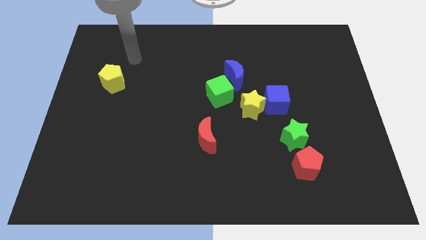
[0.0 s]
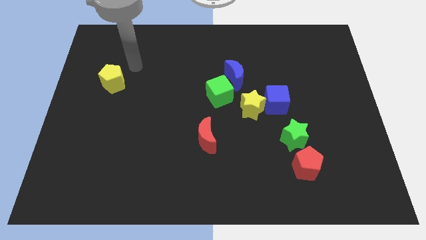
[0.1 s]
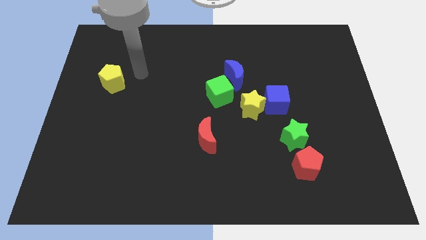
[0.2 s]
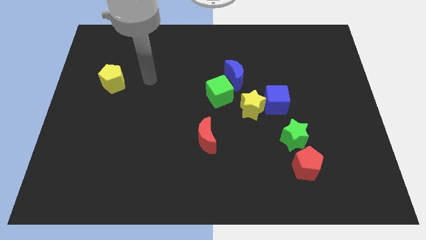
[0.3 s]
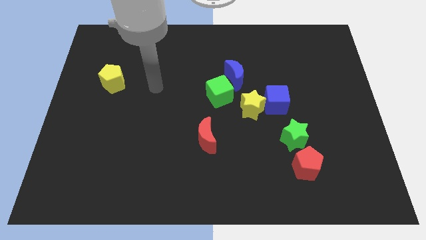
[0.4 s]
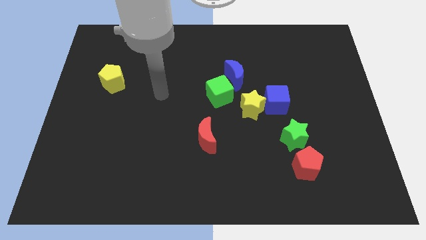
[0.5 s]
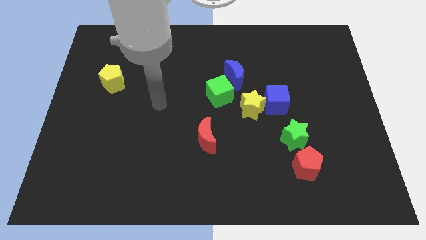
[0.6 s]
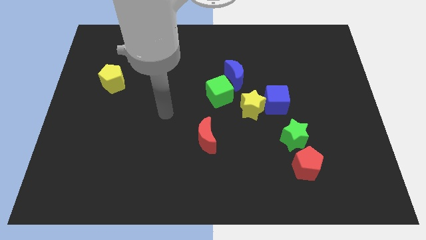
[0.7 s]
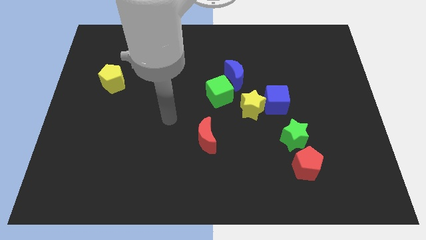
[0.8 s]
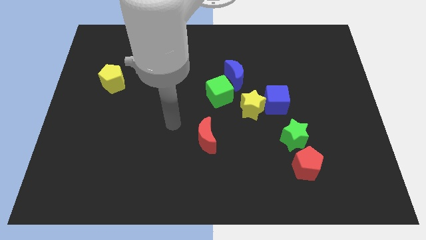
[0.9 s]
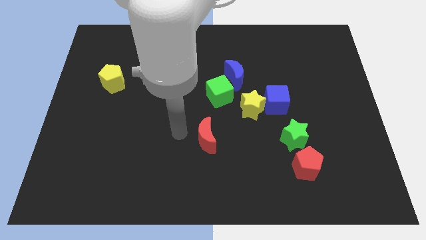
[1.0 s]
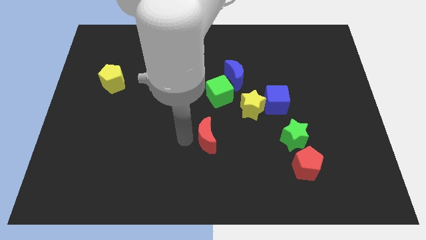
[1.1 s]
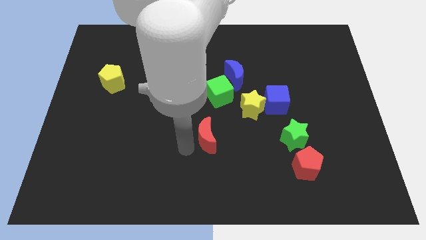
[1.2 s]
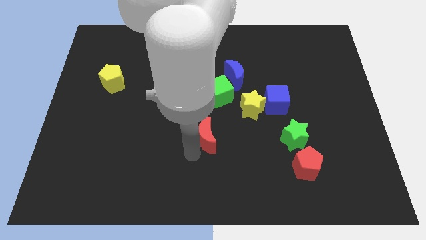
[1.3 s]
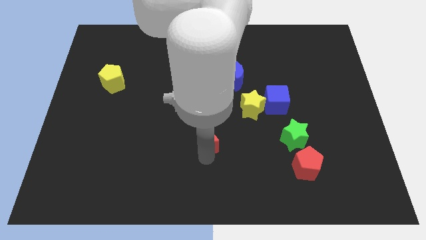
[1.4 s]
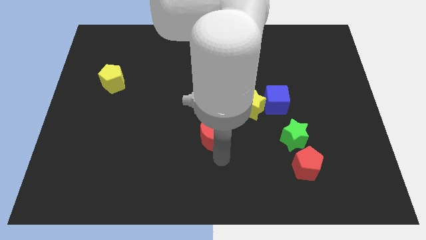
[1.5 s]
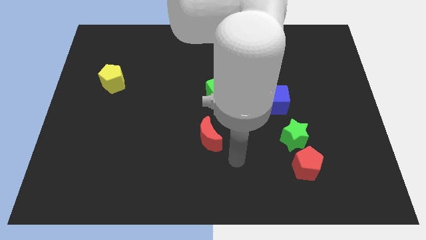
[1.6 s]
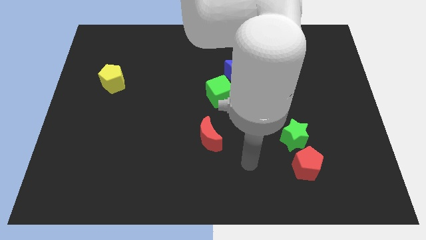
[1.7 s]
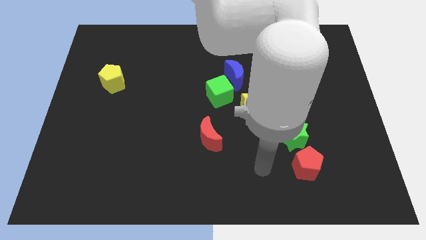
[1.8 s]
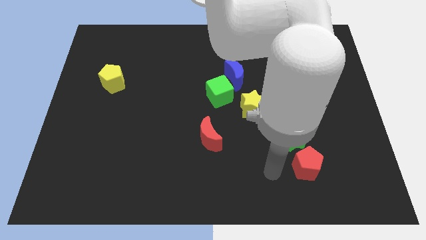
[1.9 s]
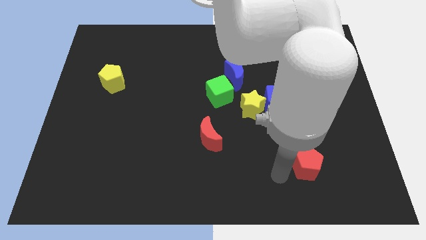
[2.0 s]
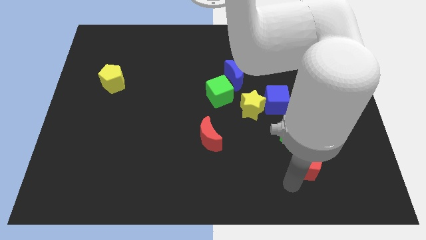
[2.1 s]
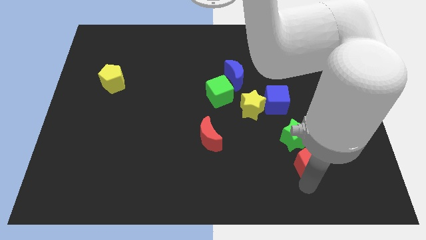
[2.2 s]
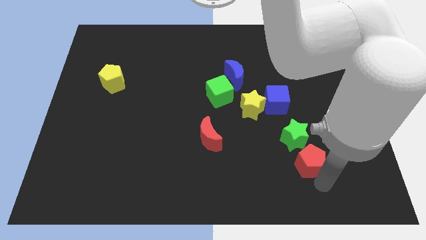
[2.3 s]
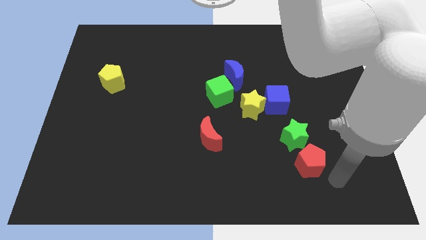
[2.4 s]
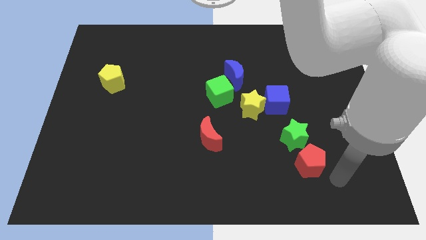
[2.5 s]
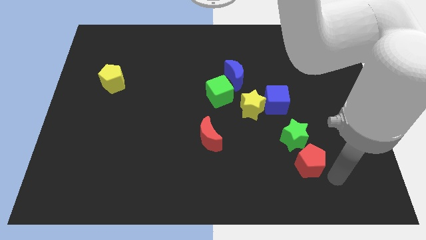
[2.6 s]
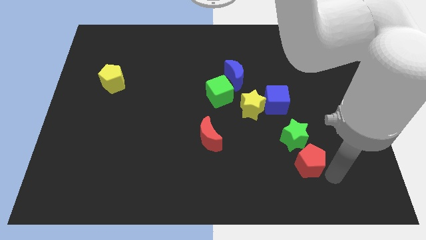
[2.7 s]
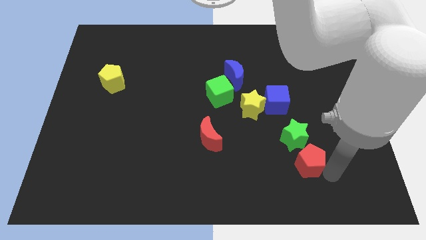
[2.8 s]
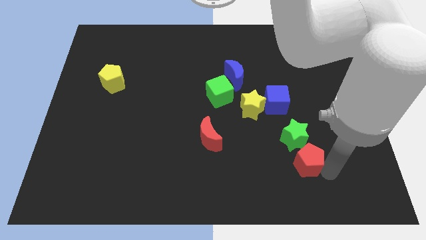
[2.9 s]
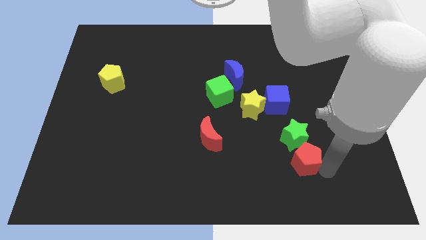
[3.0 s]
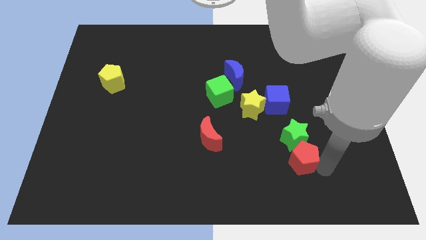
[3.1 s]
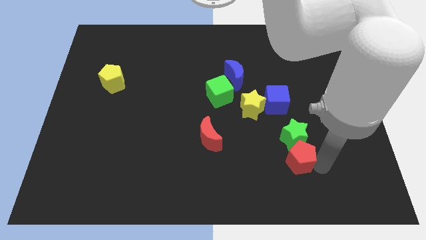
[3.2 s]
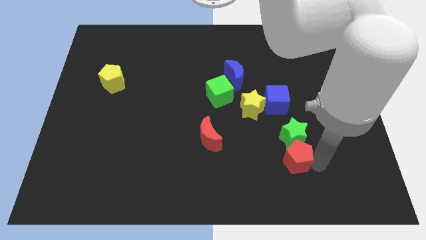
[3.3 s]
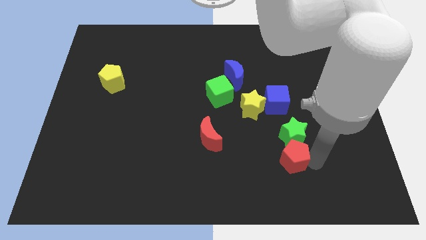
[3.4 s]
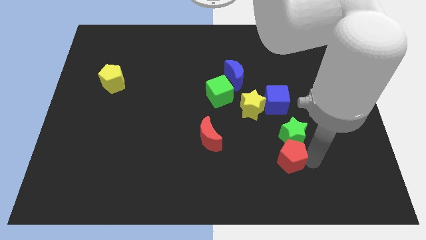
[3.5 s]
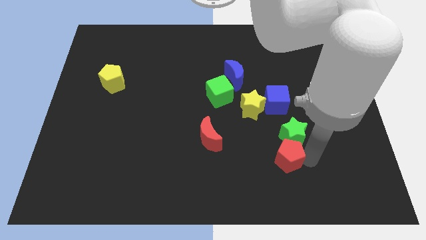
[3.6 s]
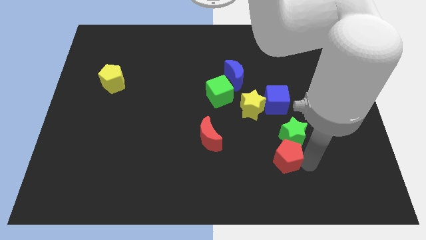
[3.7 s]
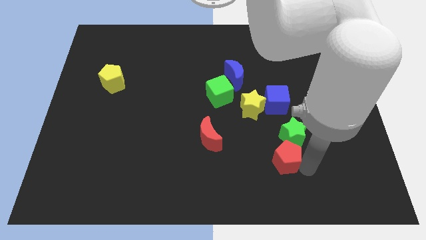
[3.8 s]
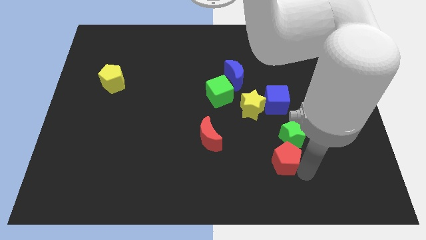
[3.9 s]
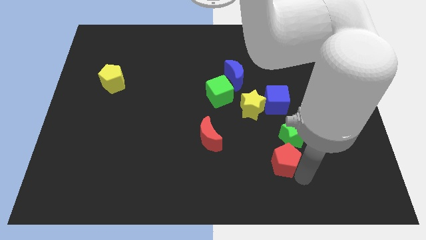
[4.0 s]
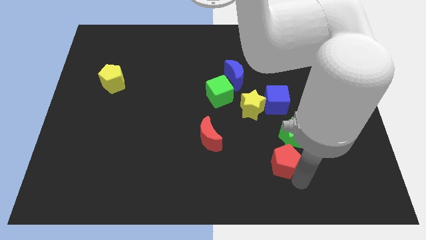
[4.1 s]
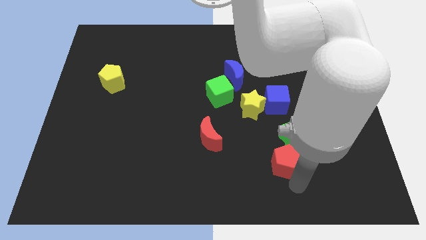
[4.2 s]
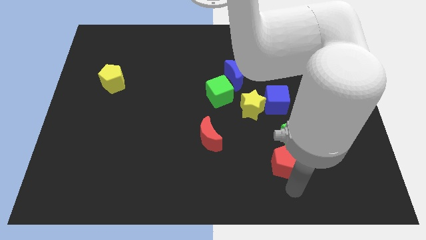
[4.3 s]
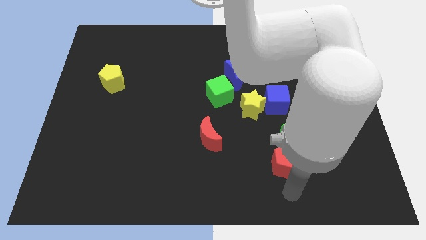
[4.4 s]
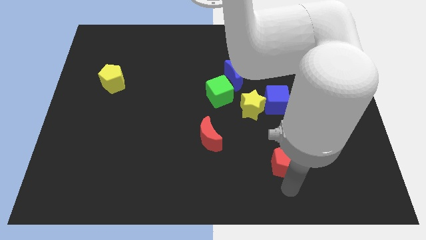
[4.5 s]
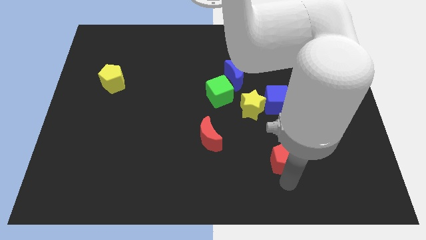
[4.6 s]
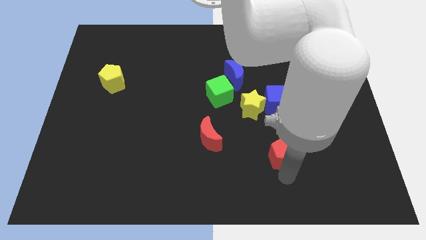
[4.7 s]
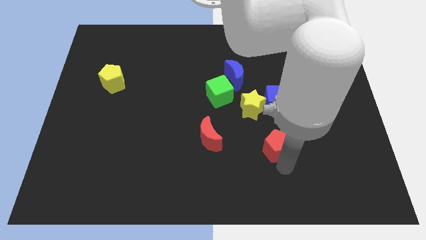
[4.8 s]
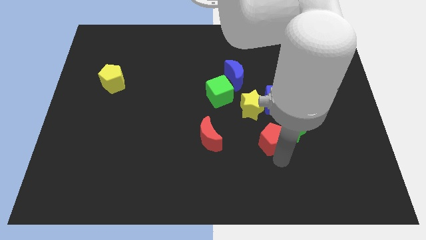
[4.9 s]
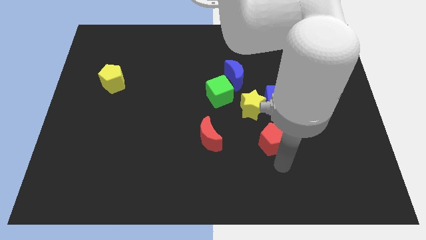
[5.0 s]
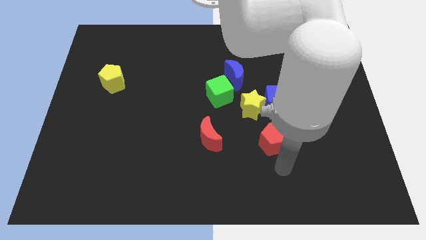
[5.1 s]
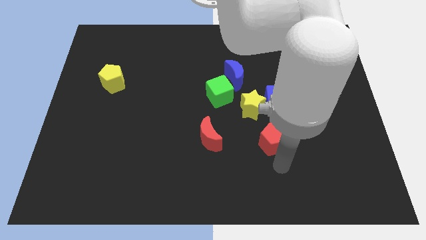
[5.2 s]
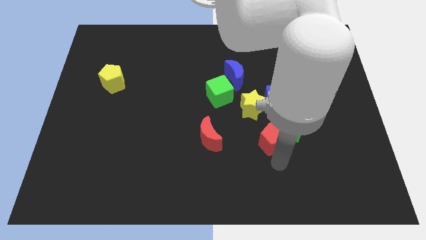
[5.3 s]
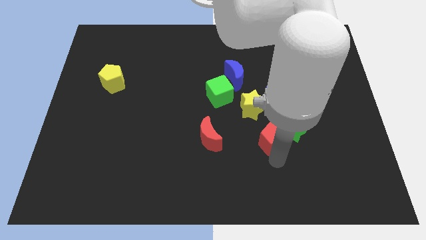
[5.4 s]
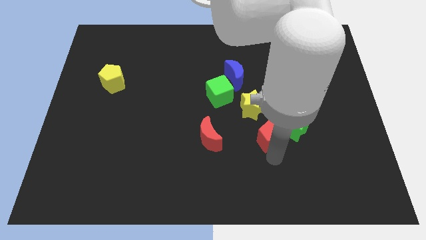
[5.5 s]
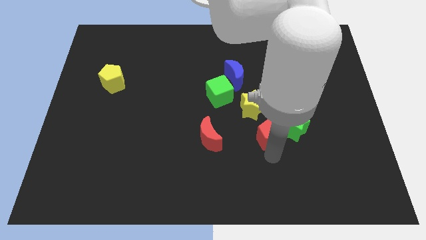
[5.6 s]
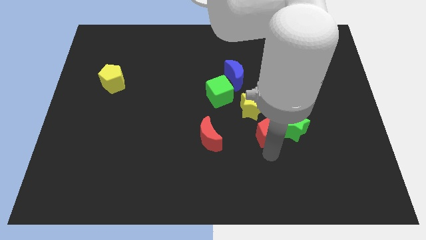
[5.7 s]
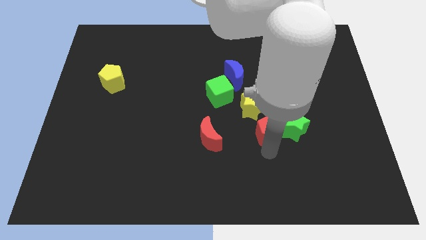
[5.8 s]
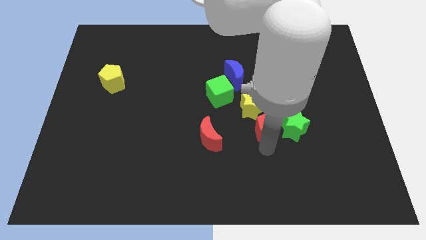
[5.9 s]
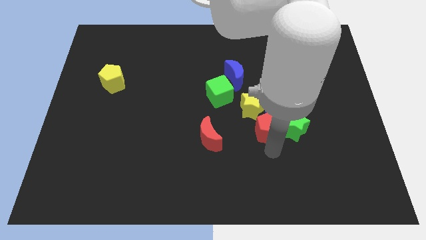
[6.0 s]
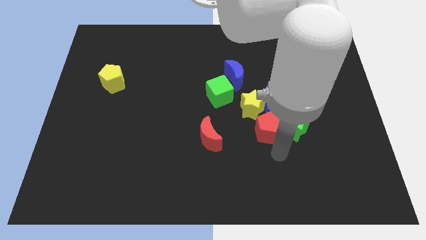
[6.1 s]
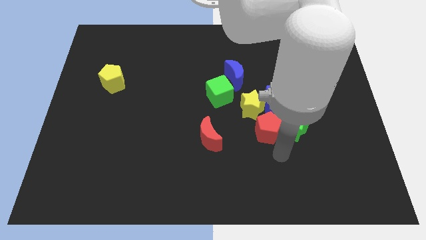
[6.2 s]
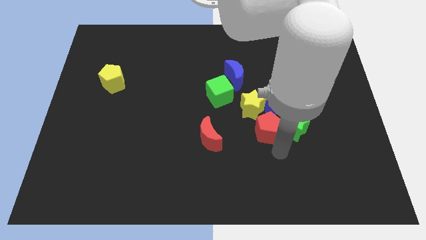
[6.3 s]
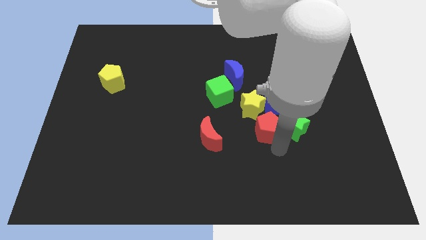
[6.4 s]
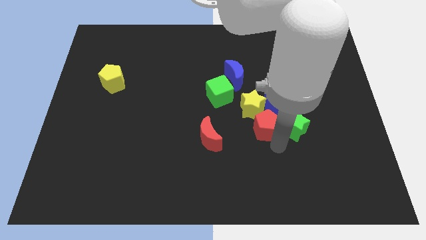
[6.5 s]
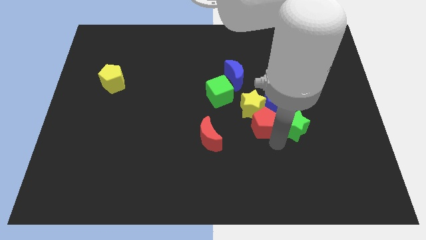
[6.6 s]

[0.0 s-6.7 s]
put the red pentagon close to the yellow star
